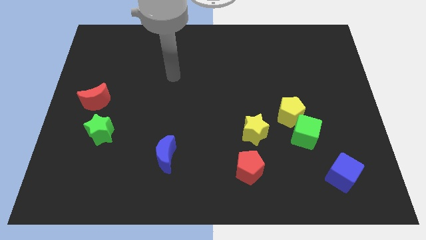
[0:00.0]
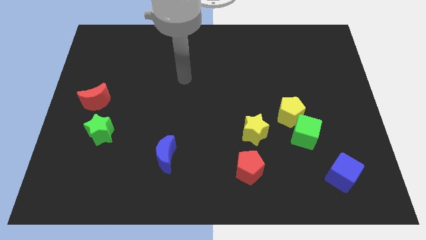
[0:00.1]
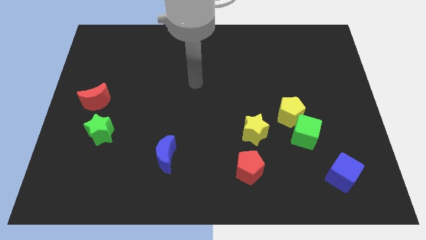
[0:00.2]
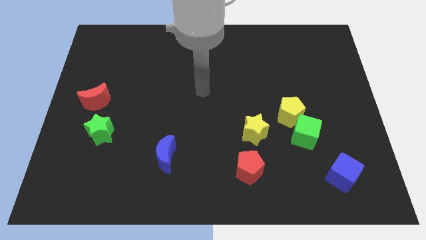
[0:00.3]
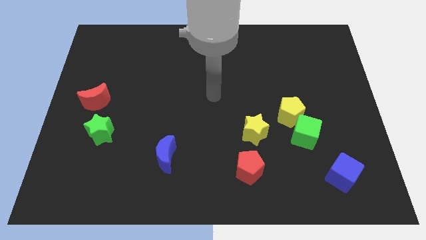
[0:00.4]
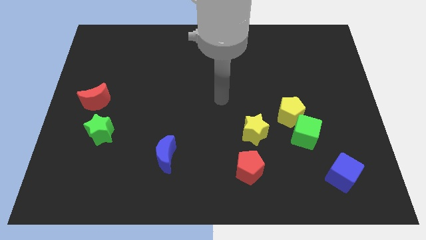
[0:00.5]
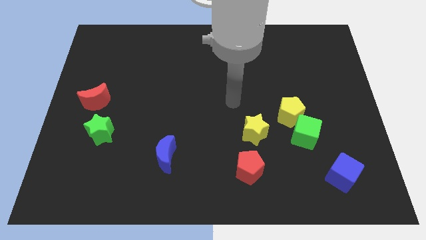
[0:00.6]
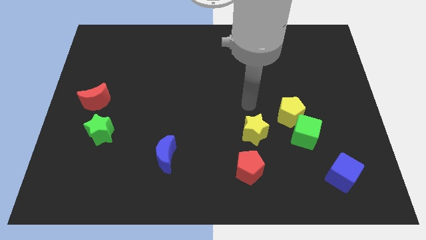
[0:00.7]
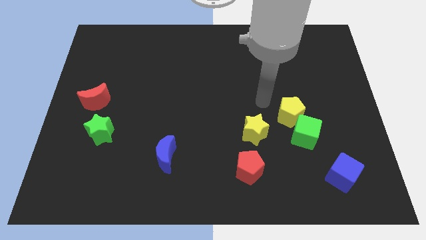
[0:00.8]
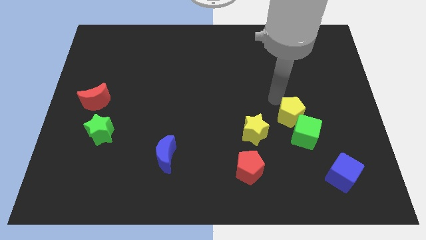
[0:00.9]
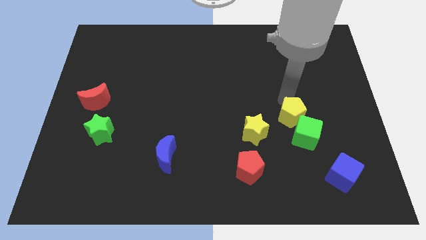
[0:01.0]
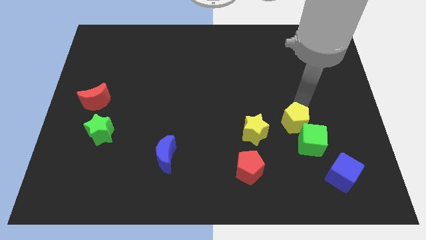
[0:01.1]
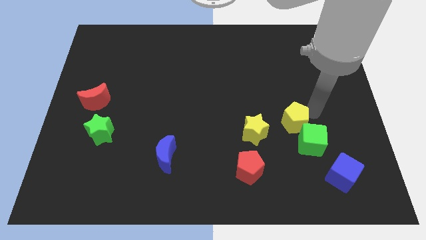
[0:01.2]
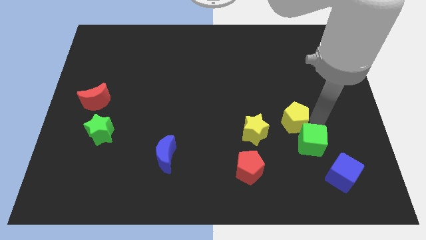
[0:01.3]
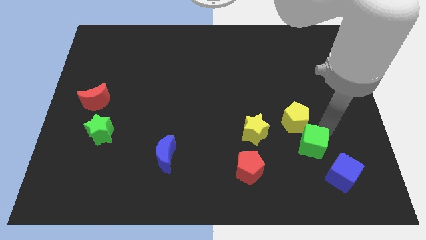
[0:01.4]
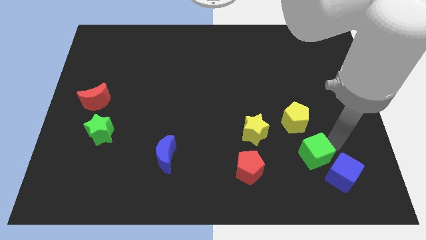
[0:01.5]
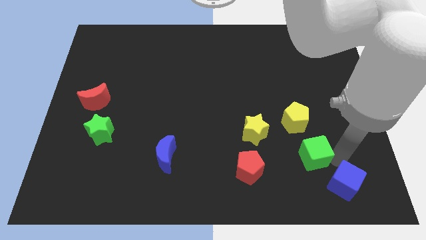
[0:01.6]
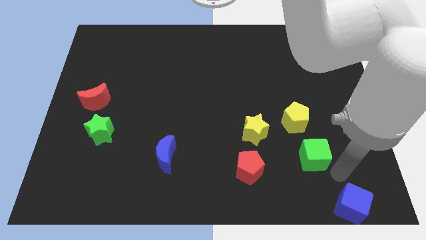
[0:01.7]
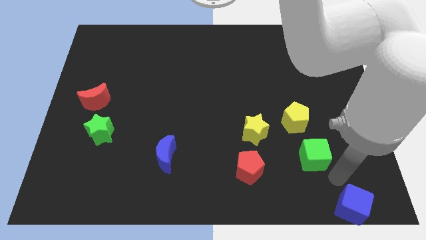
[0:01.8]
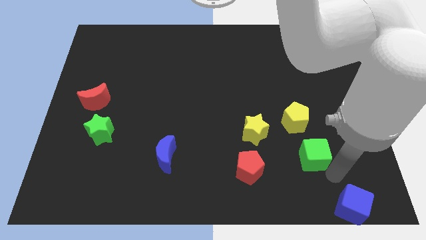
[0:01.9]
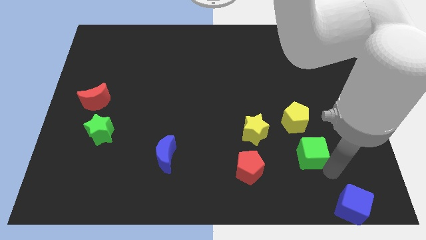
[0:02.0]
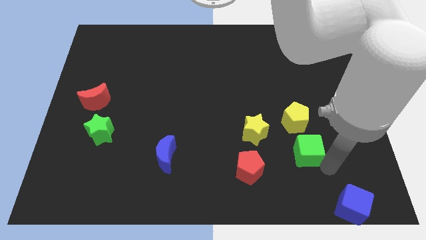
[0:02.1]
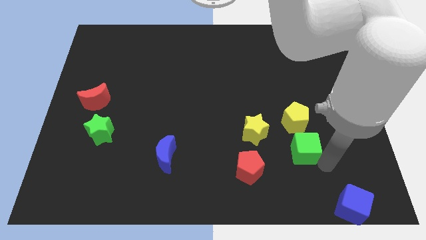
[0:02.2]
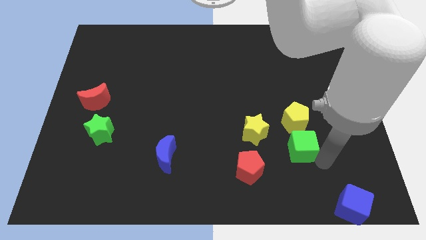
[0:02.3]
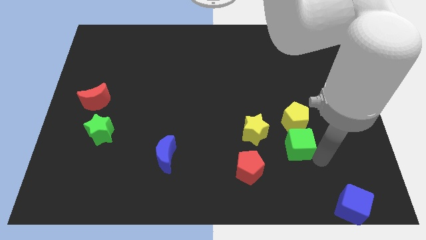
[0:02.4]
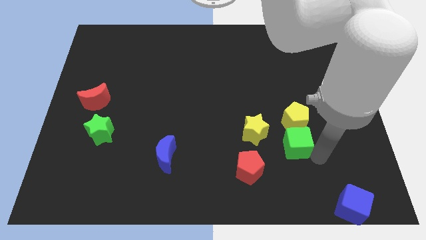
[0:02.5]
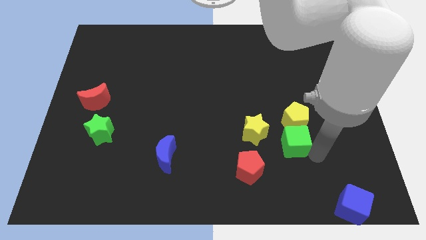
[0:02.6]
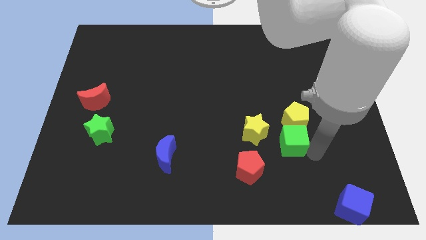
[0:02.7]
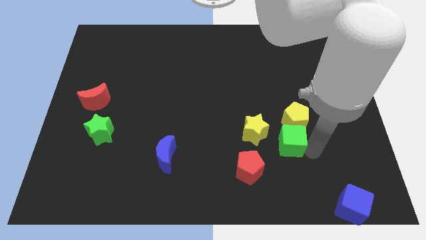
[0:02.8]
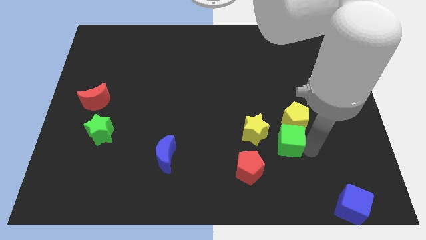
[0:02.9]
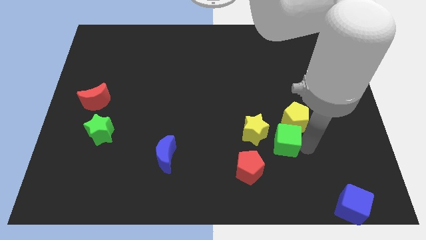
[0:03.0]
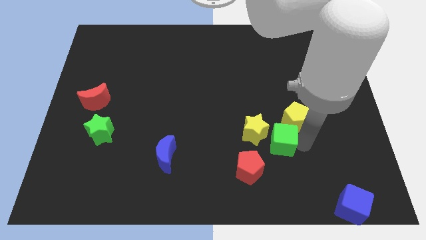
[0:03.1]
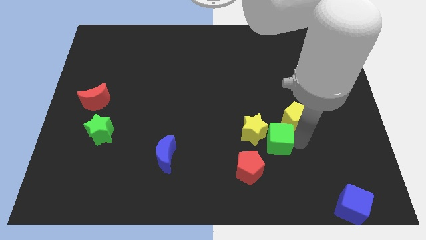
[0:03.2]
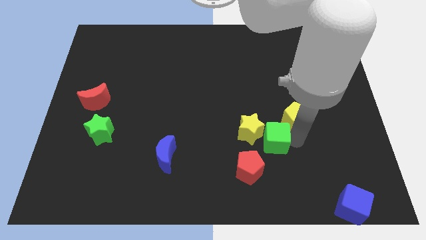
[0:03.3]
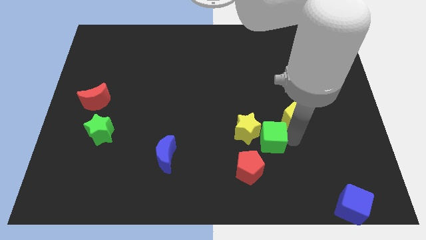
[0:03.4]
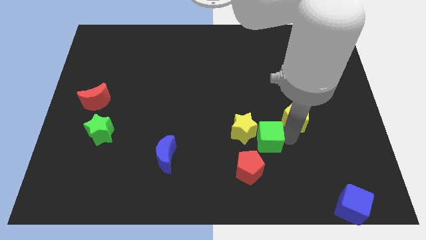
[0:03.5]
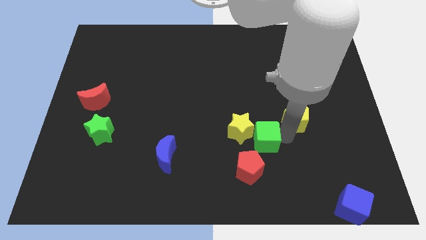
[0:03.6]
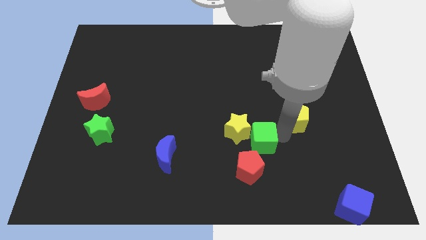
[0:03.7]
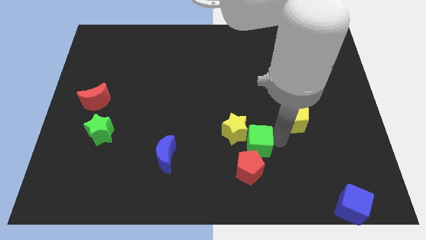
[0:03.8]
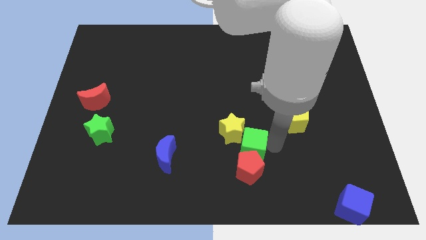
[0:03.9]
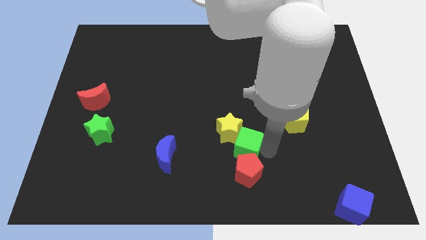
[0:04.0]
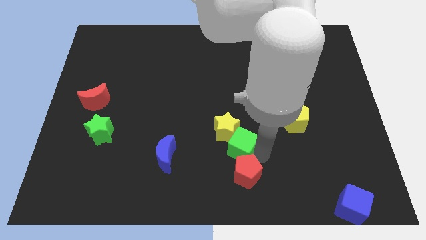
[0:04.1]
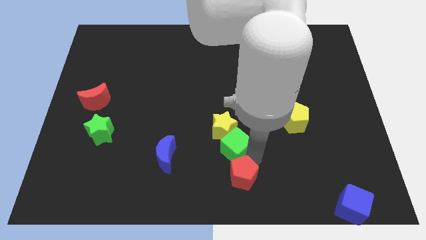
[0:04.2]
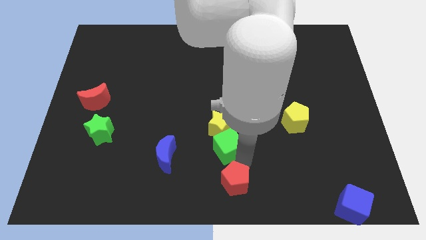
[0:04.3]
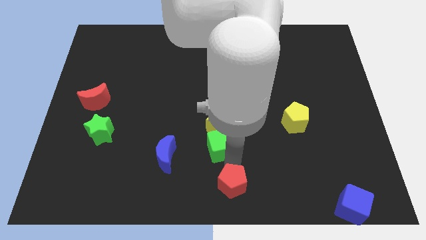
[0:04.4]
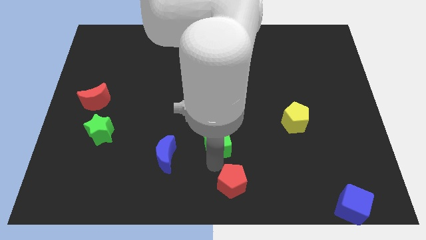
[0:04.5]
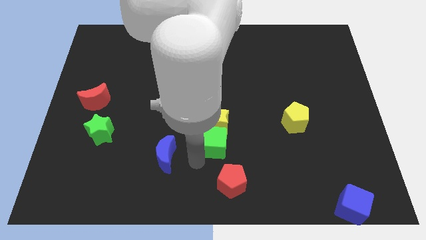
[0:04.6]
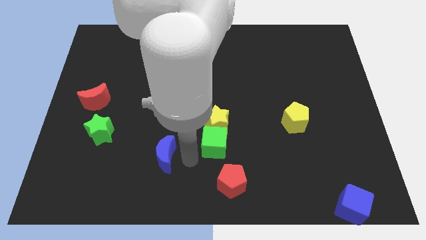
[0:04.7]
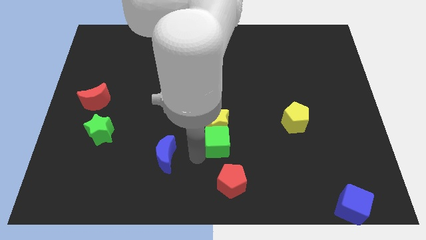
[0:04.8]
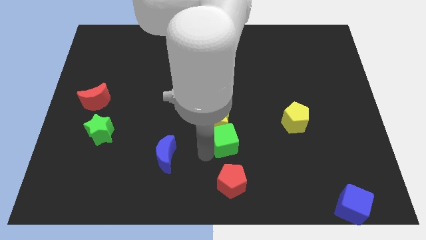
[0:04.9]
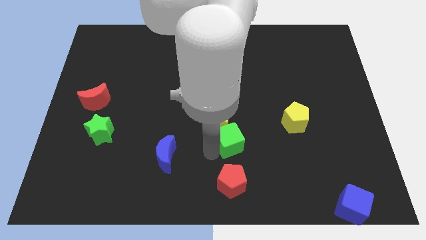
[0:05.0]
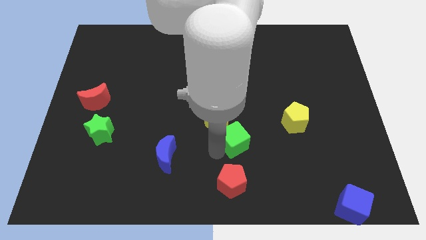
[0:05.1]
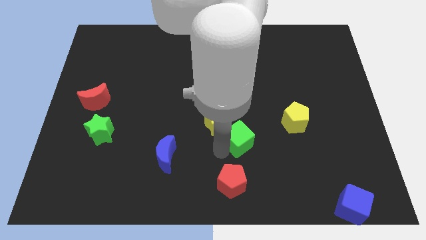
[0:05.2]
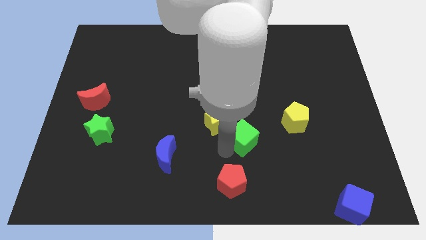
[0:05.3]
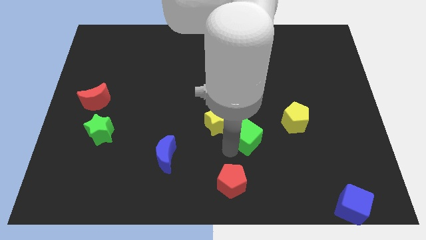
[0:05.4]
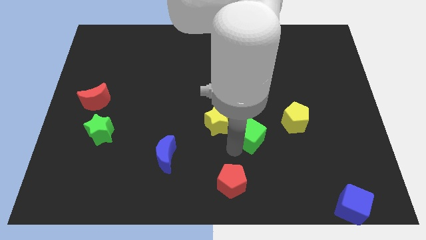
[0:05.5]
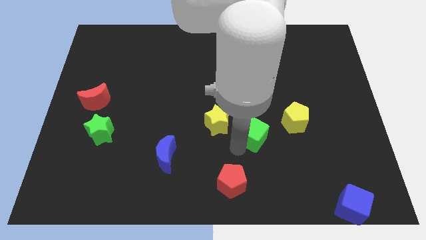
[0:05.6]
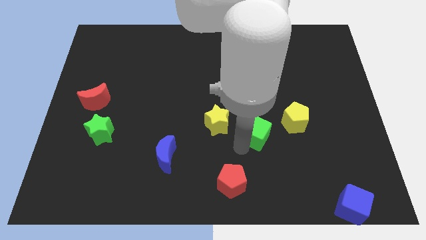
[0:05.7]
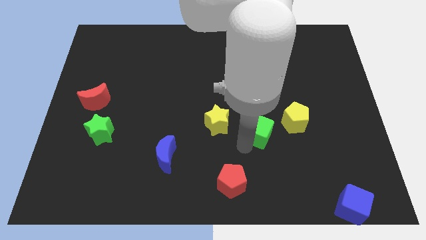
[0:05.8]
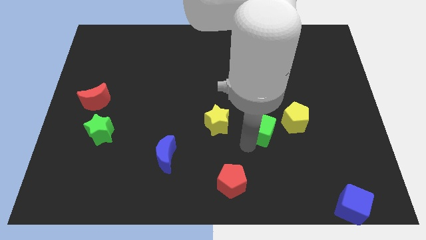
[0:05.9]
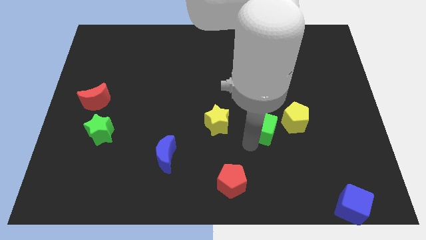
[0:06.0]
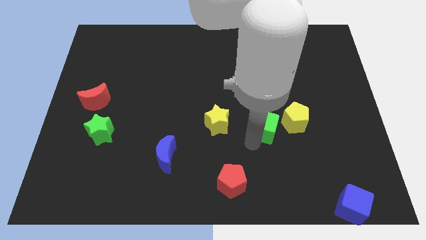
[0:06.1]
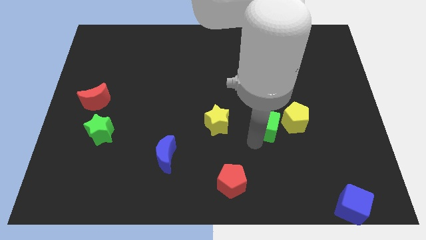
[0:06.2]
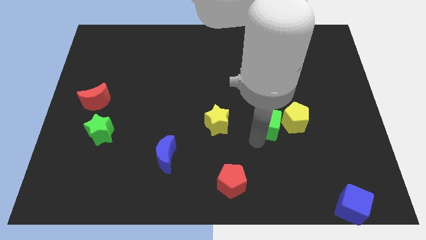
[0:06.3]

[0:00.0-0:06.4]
push the green cube slightly upwards and to the left diagonally

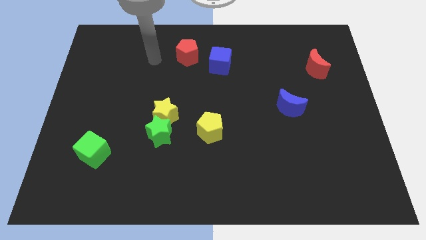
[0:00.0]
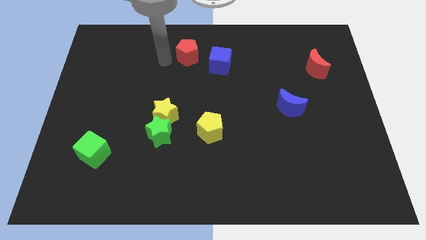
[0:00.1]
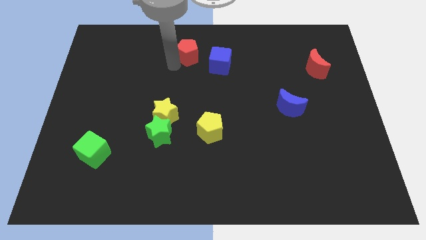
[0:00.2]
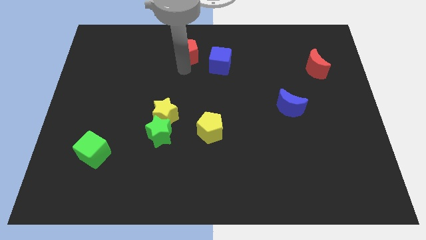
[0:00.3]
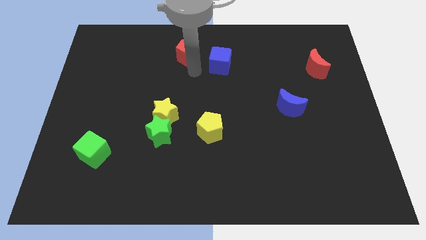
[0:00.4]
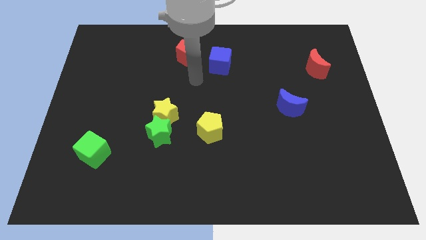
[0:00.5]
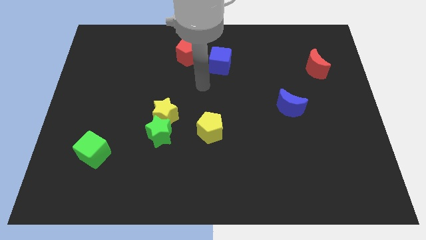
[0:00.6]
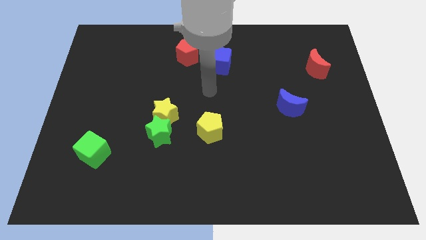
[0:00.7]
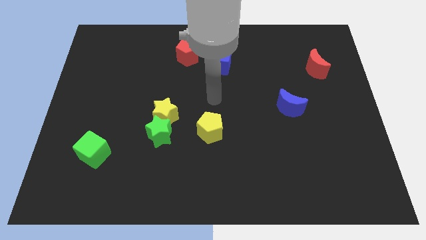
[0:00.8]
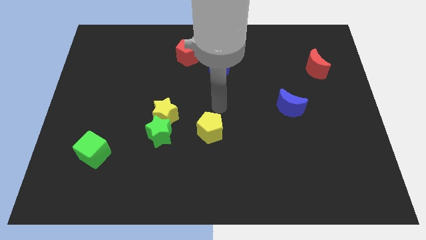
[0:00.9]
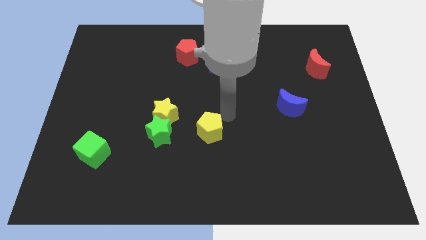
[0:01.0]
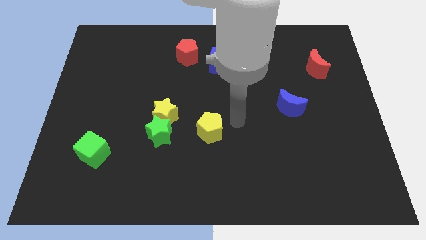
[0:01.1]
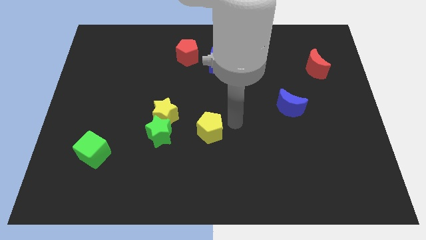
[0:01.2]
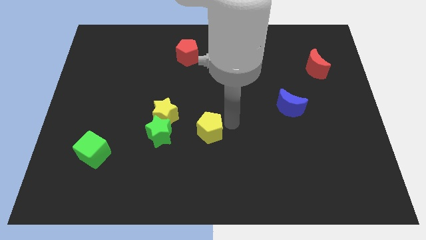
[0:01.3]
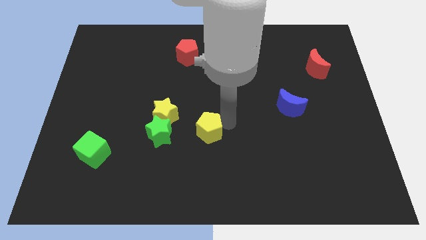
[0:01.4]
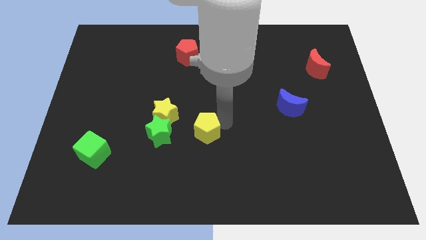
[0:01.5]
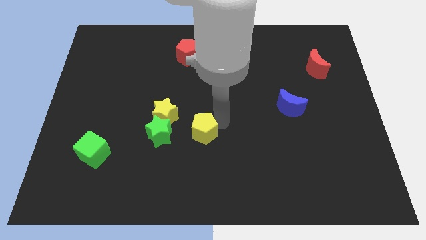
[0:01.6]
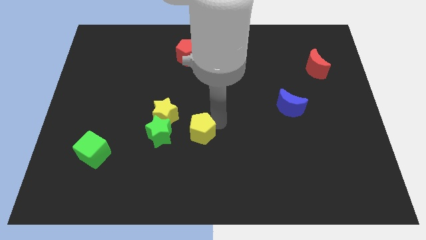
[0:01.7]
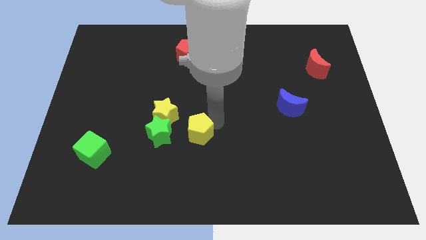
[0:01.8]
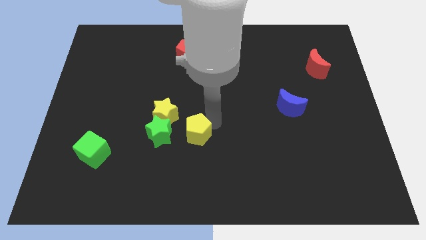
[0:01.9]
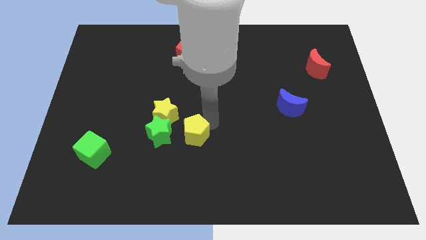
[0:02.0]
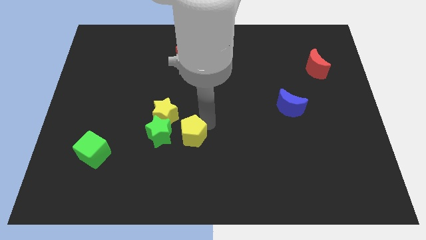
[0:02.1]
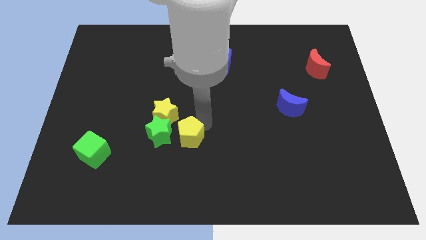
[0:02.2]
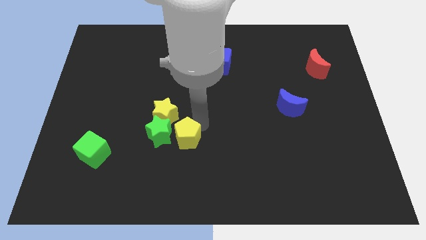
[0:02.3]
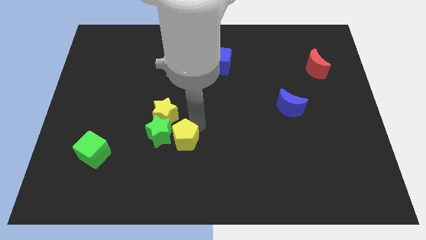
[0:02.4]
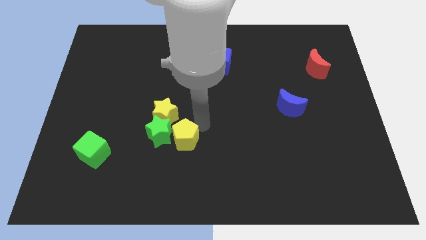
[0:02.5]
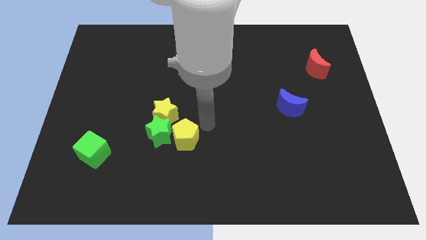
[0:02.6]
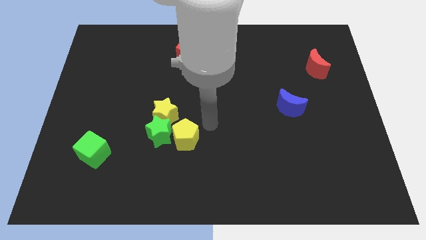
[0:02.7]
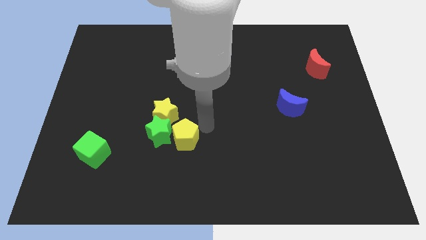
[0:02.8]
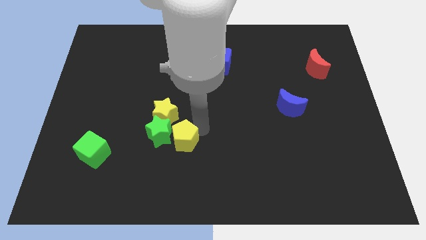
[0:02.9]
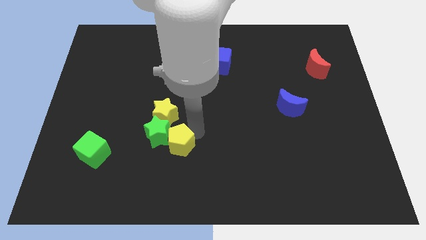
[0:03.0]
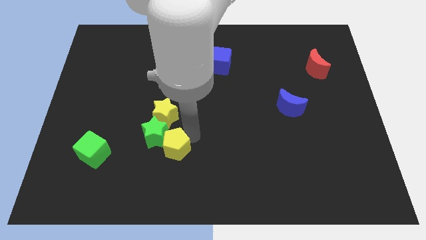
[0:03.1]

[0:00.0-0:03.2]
slightly move the yellow pentagon left
